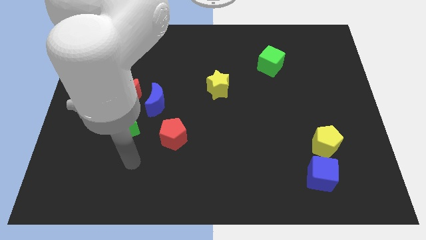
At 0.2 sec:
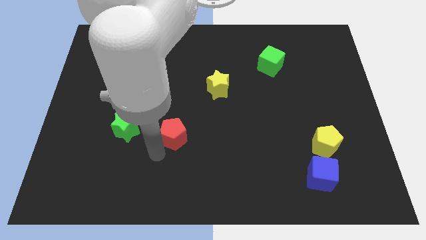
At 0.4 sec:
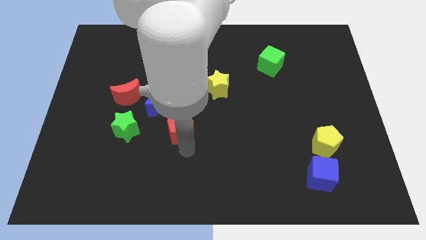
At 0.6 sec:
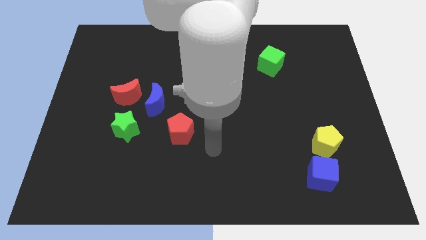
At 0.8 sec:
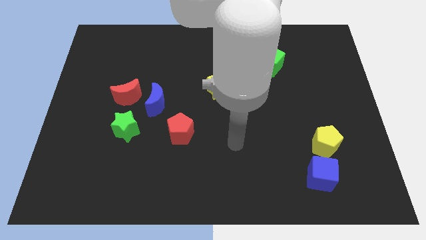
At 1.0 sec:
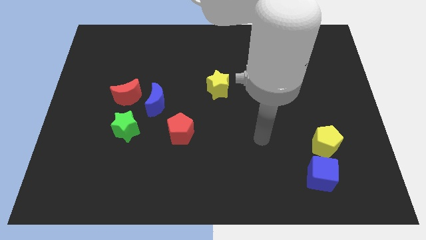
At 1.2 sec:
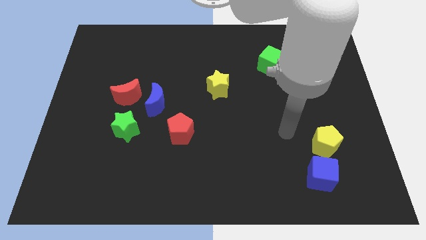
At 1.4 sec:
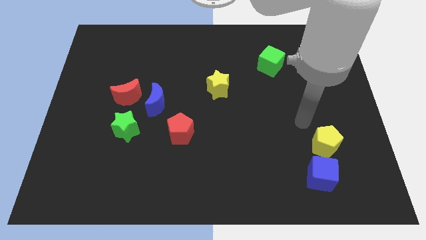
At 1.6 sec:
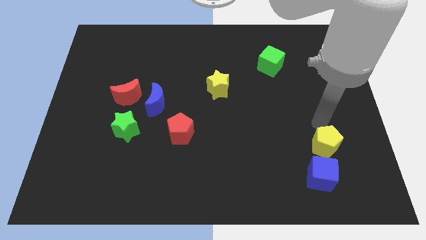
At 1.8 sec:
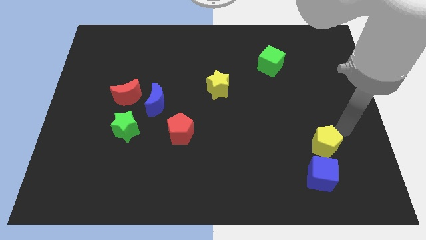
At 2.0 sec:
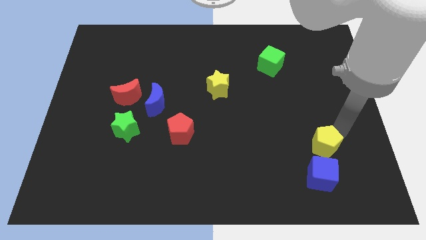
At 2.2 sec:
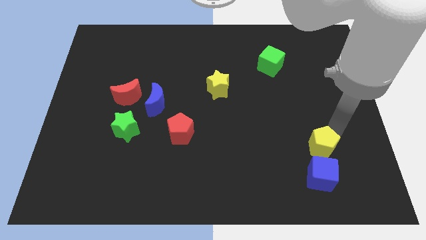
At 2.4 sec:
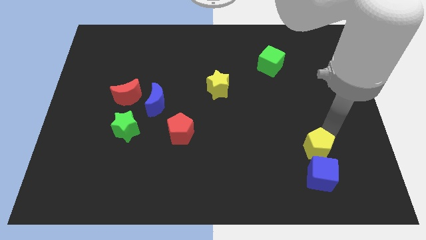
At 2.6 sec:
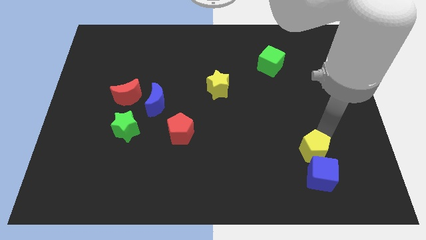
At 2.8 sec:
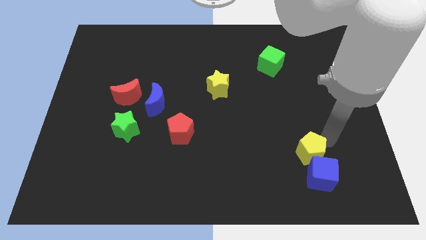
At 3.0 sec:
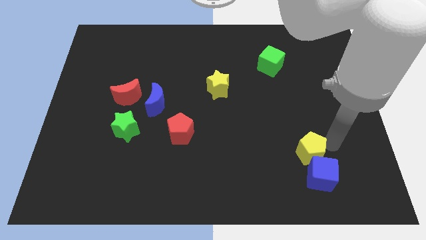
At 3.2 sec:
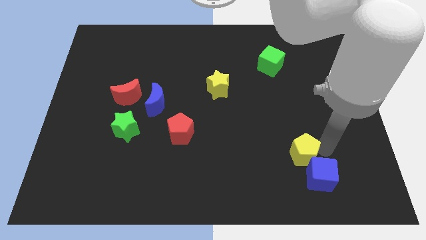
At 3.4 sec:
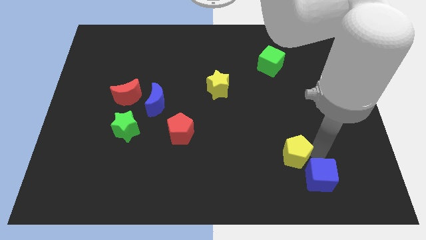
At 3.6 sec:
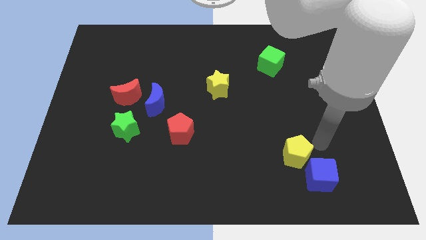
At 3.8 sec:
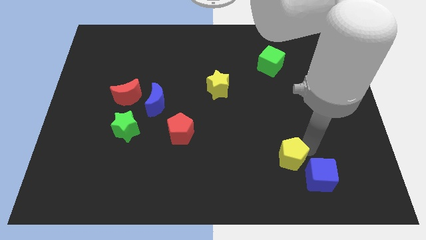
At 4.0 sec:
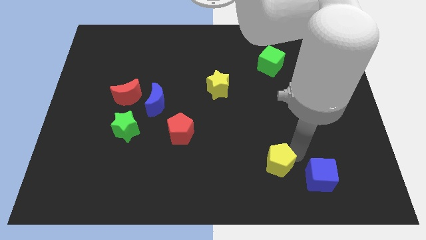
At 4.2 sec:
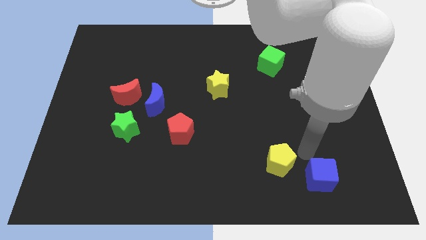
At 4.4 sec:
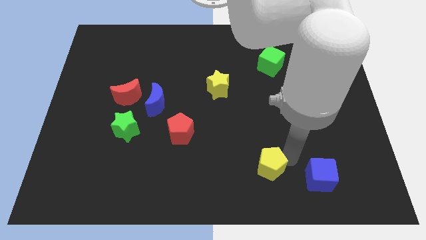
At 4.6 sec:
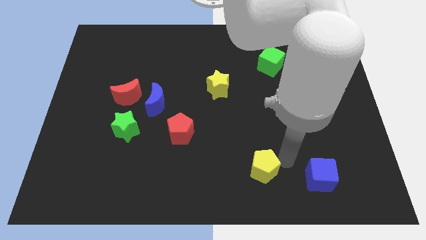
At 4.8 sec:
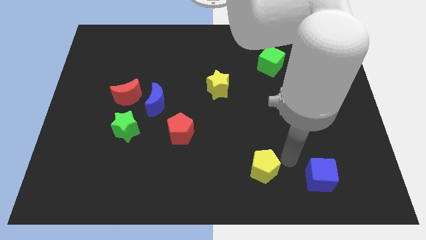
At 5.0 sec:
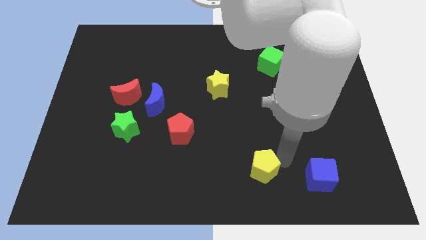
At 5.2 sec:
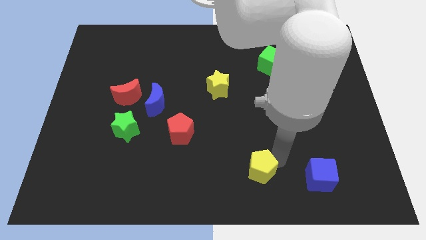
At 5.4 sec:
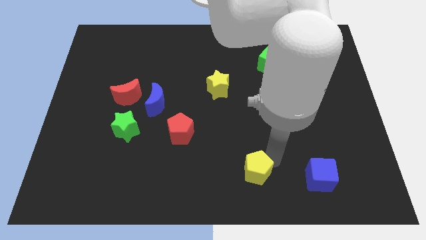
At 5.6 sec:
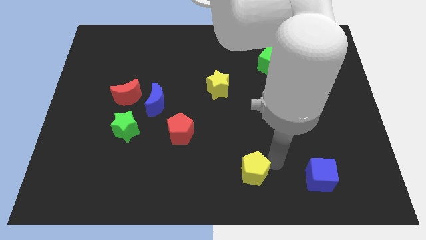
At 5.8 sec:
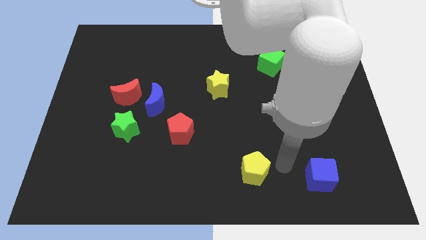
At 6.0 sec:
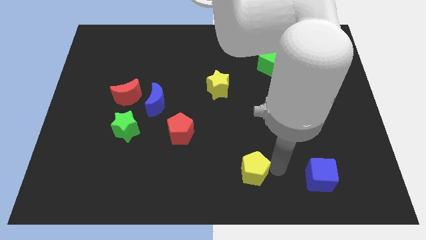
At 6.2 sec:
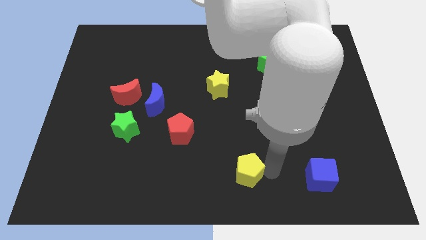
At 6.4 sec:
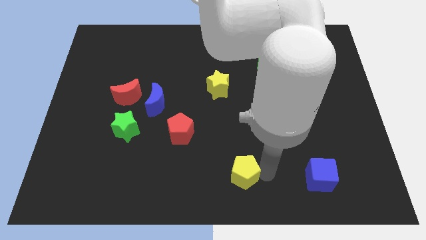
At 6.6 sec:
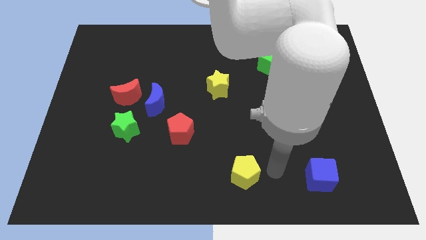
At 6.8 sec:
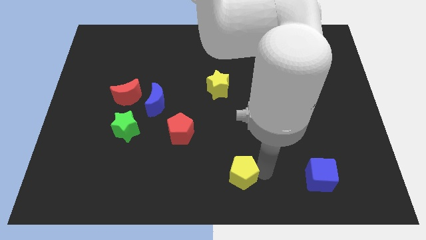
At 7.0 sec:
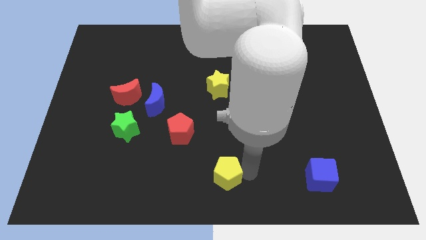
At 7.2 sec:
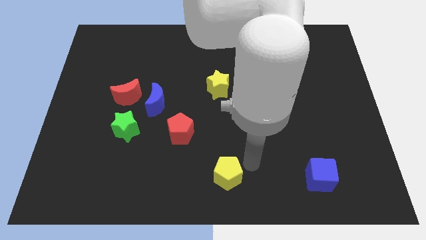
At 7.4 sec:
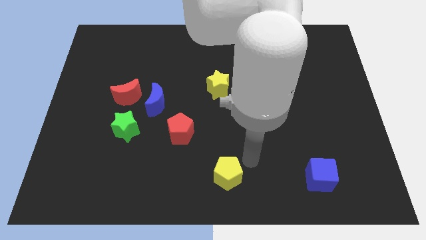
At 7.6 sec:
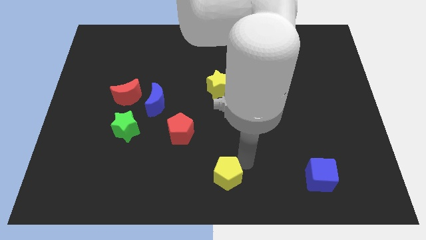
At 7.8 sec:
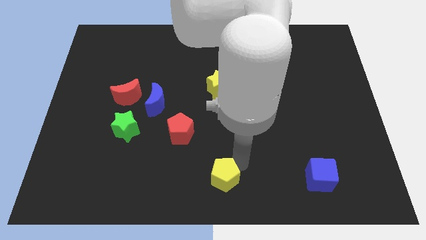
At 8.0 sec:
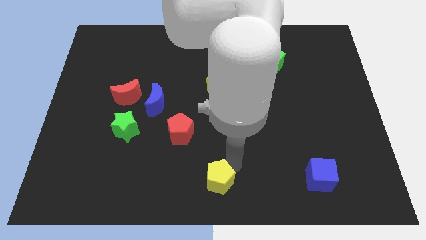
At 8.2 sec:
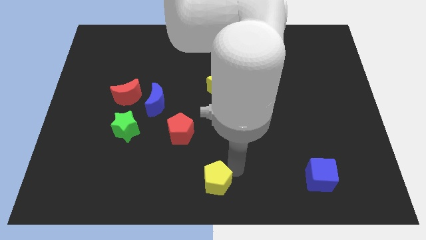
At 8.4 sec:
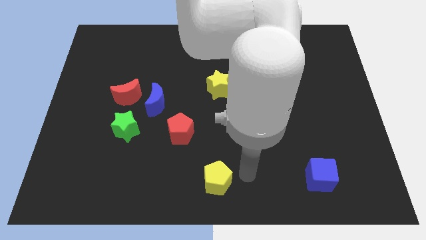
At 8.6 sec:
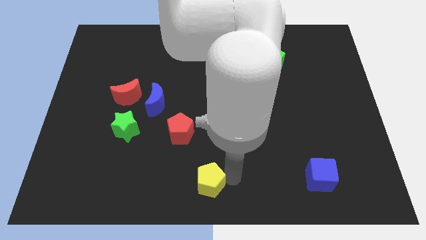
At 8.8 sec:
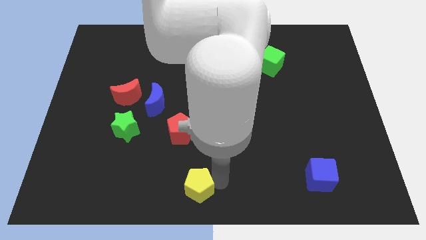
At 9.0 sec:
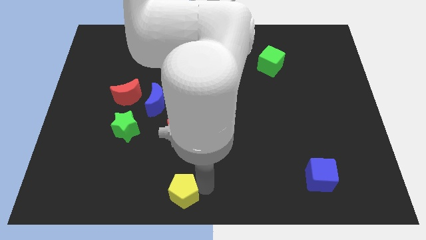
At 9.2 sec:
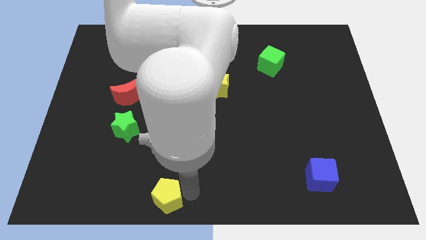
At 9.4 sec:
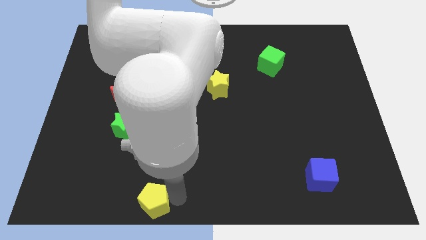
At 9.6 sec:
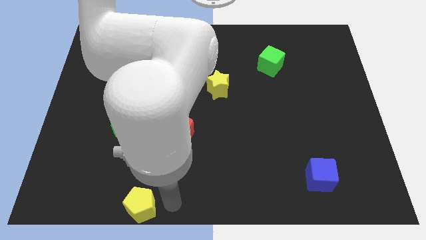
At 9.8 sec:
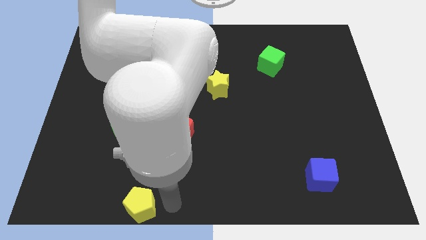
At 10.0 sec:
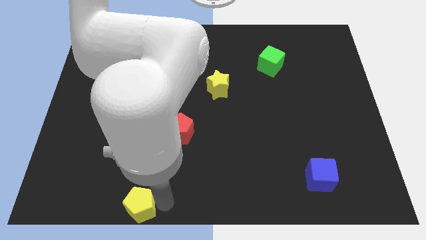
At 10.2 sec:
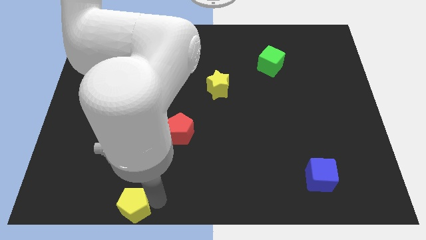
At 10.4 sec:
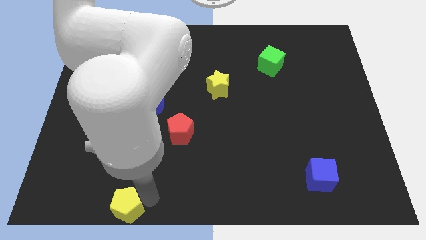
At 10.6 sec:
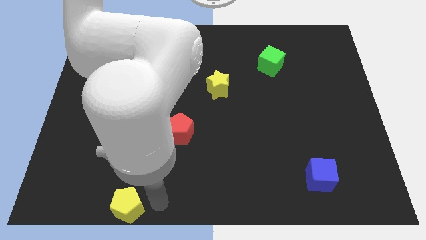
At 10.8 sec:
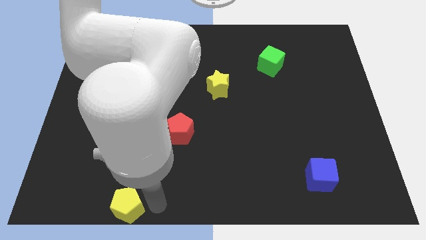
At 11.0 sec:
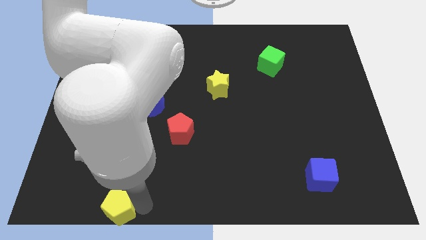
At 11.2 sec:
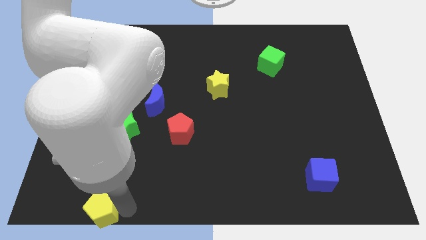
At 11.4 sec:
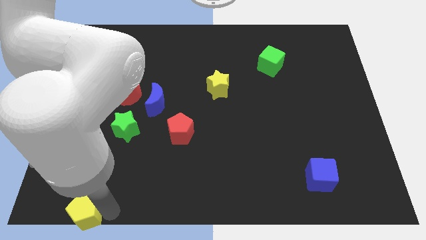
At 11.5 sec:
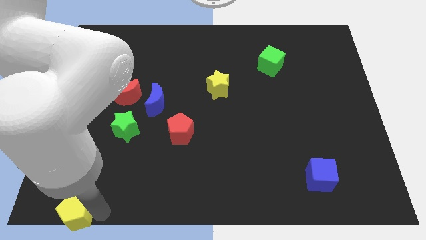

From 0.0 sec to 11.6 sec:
move the yellow pentagon to the bottom left
